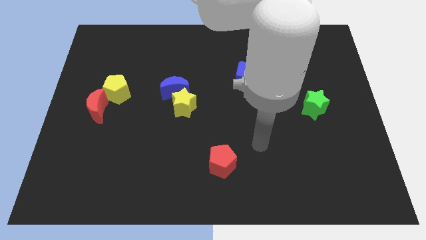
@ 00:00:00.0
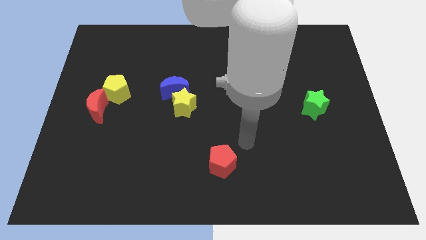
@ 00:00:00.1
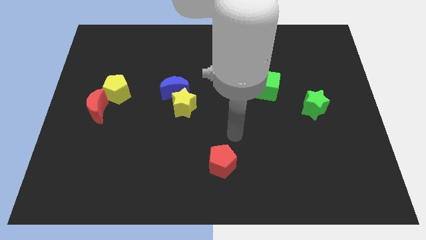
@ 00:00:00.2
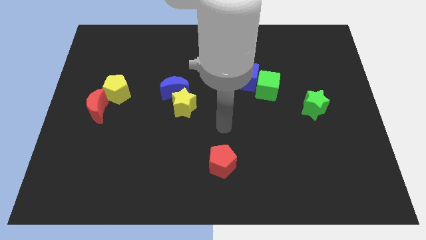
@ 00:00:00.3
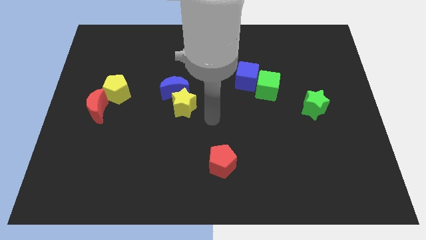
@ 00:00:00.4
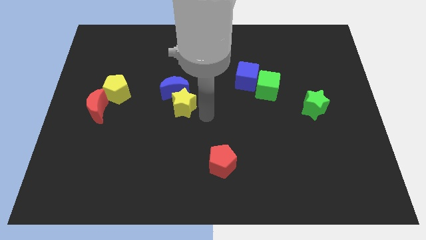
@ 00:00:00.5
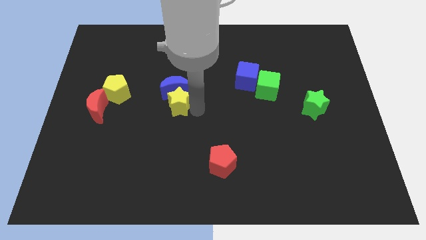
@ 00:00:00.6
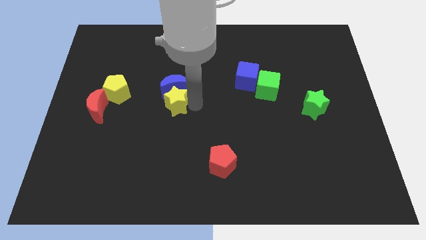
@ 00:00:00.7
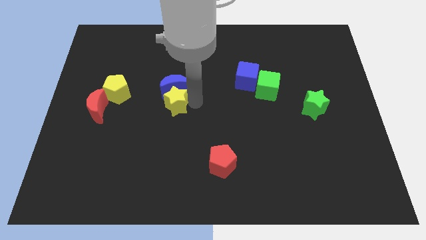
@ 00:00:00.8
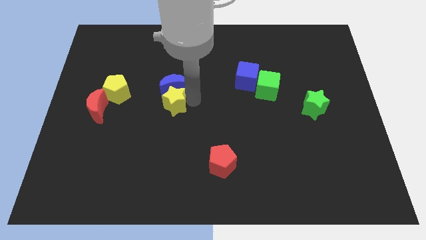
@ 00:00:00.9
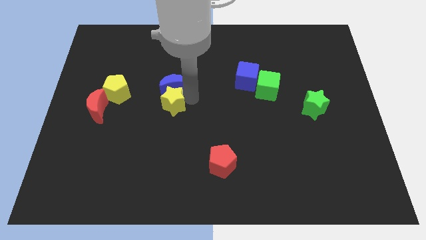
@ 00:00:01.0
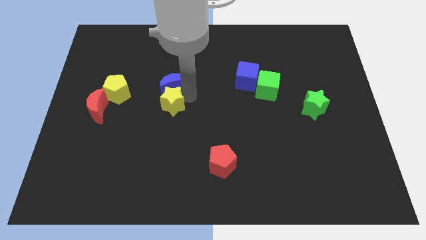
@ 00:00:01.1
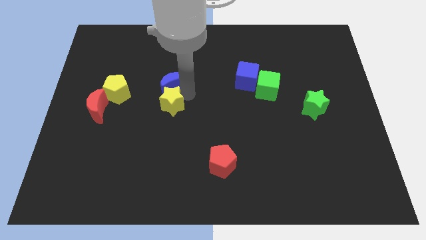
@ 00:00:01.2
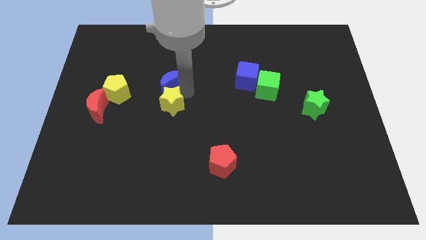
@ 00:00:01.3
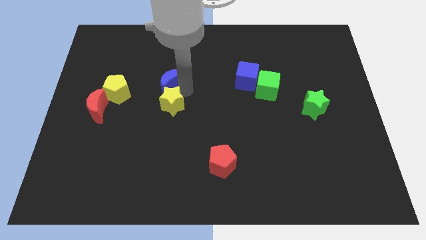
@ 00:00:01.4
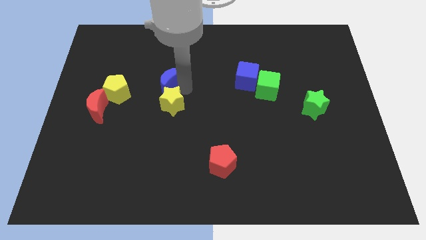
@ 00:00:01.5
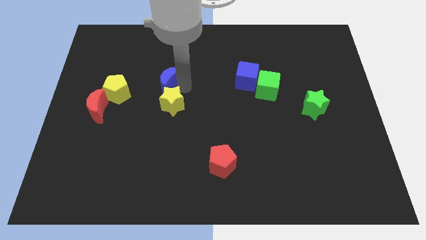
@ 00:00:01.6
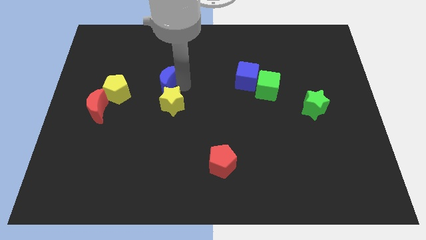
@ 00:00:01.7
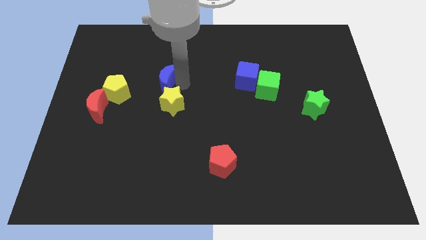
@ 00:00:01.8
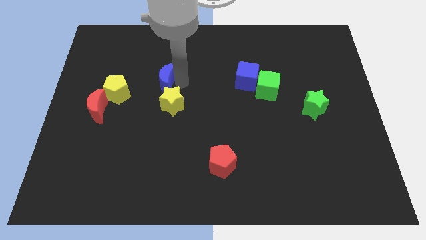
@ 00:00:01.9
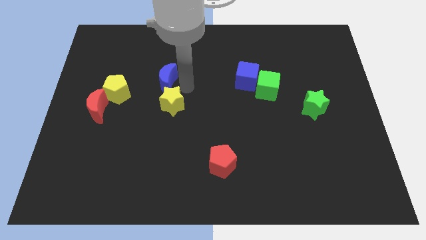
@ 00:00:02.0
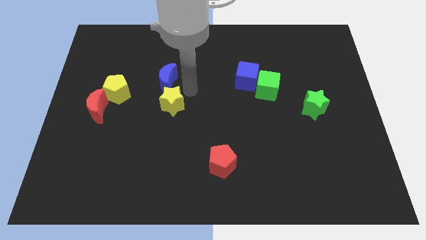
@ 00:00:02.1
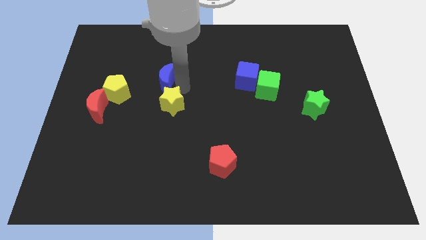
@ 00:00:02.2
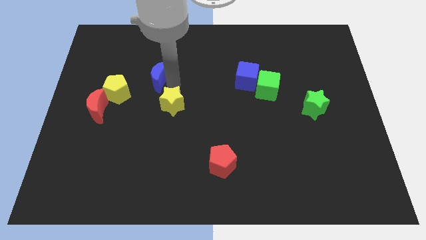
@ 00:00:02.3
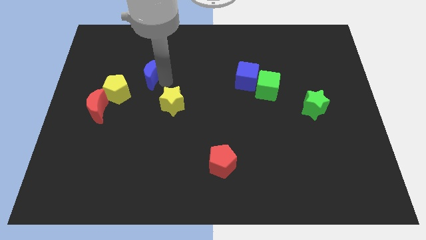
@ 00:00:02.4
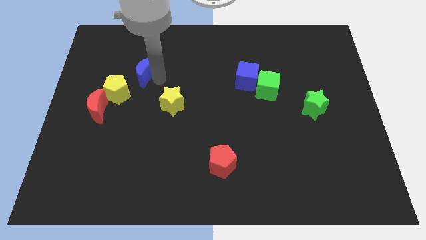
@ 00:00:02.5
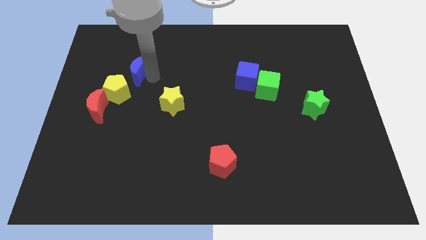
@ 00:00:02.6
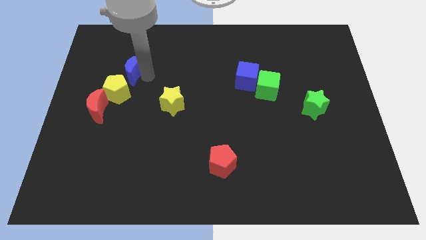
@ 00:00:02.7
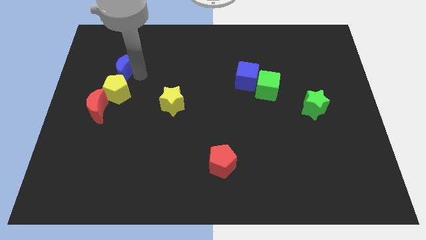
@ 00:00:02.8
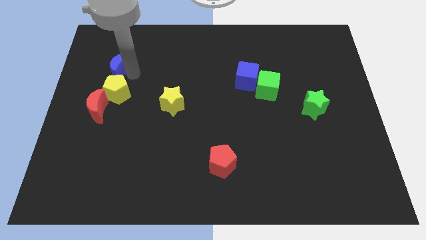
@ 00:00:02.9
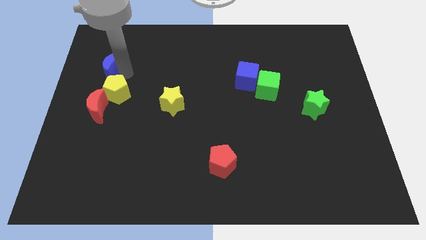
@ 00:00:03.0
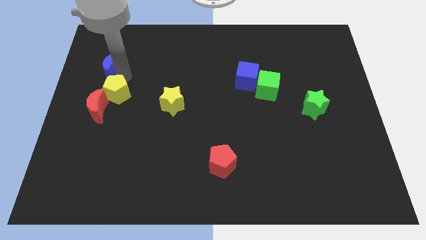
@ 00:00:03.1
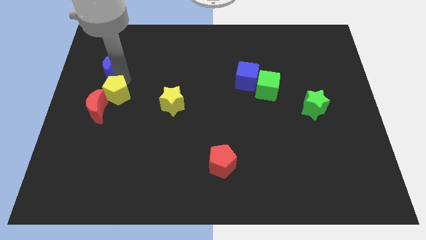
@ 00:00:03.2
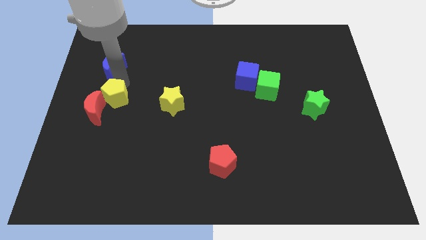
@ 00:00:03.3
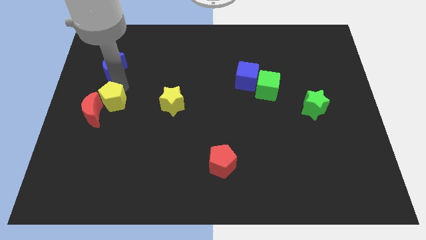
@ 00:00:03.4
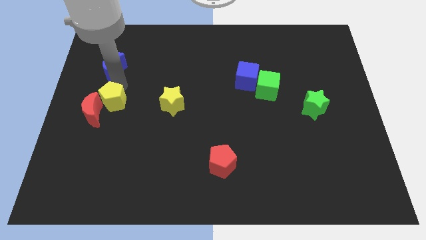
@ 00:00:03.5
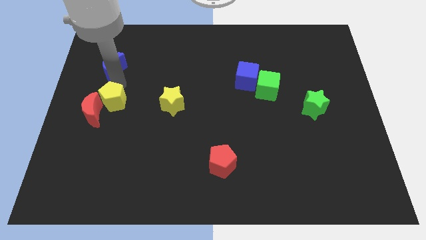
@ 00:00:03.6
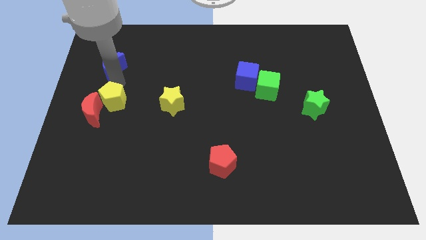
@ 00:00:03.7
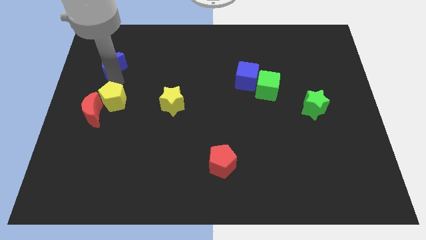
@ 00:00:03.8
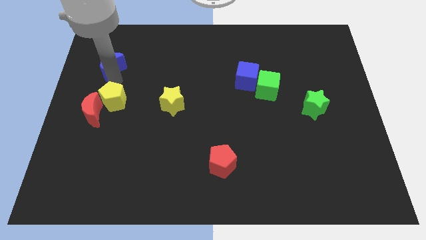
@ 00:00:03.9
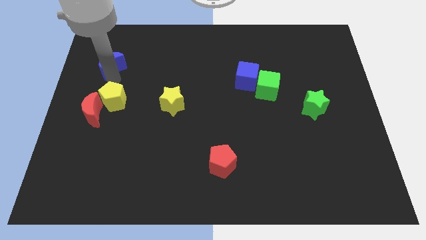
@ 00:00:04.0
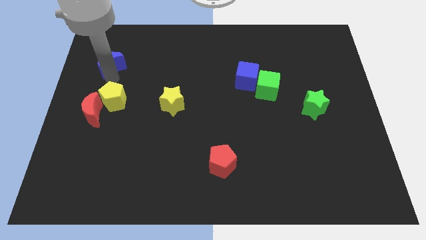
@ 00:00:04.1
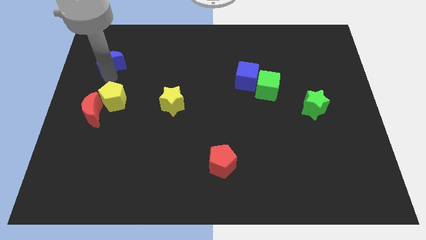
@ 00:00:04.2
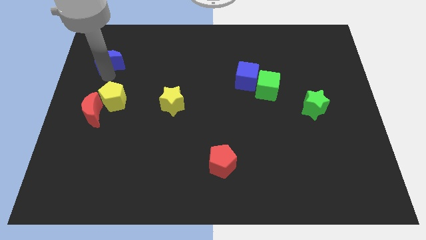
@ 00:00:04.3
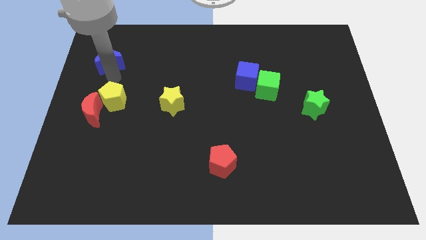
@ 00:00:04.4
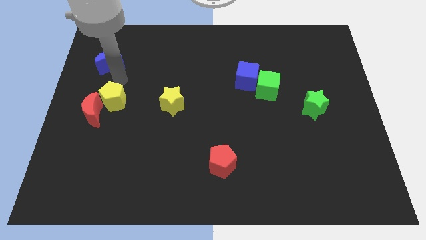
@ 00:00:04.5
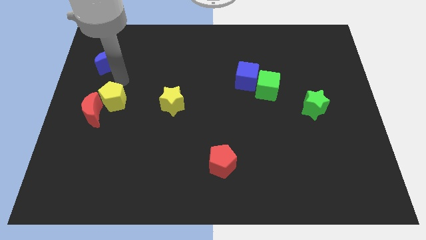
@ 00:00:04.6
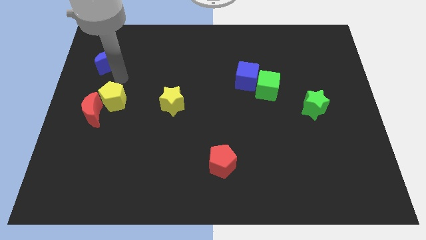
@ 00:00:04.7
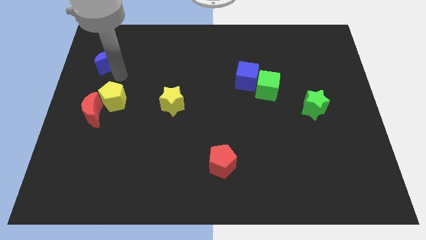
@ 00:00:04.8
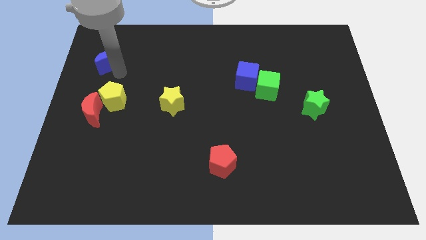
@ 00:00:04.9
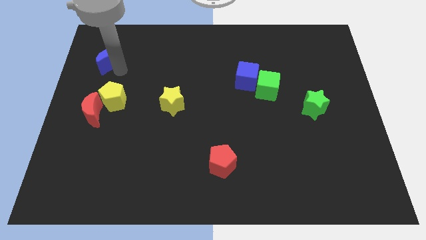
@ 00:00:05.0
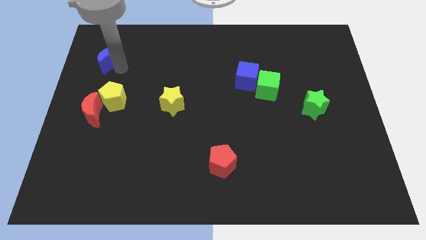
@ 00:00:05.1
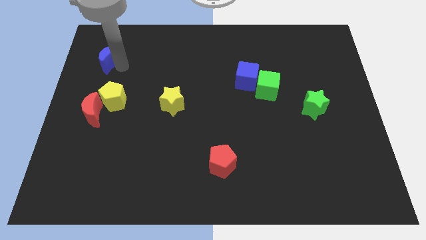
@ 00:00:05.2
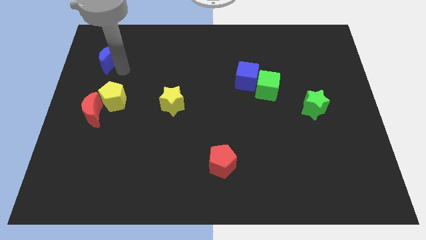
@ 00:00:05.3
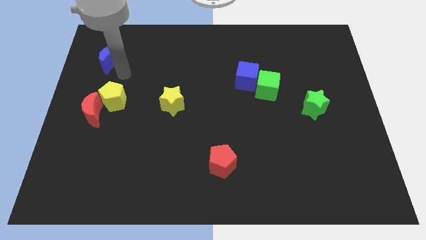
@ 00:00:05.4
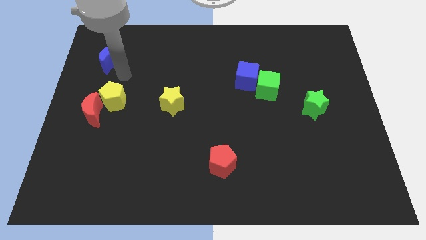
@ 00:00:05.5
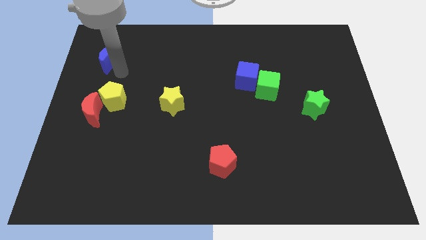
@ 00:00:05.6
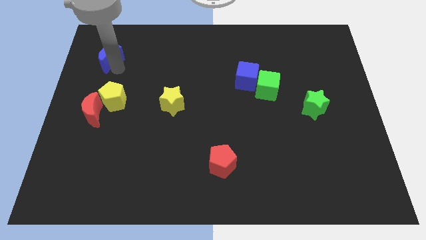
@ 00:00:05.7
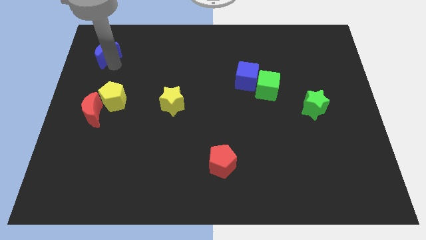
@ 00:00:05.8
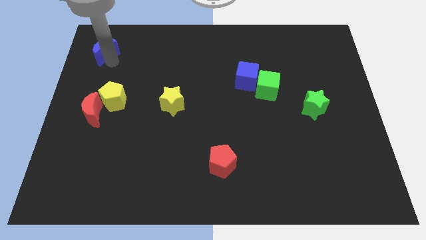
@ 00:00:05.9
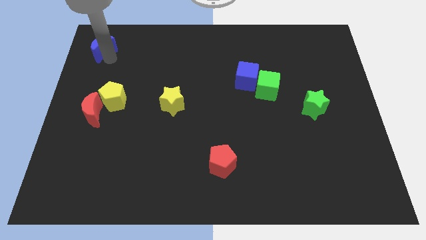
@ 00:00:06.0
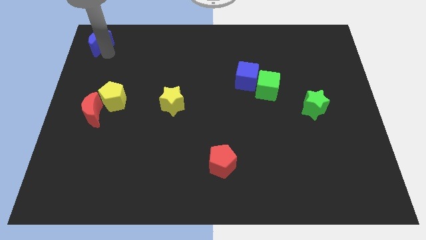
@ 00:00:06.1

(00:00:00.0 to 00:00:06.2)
move the blue moon to the top left

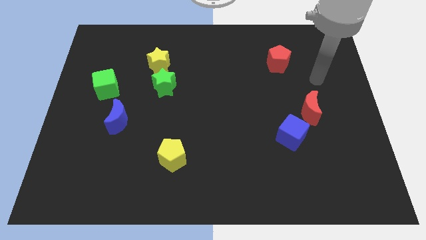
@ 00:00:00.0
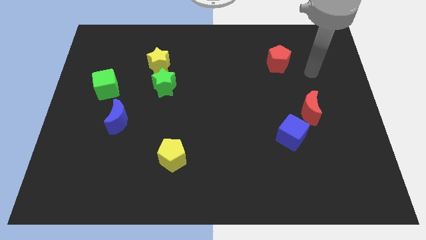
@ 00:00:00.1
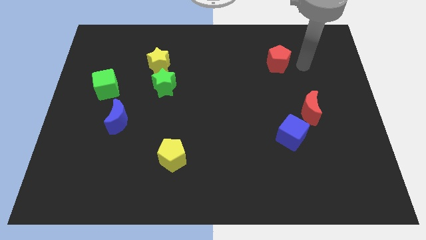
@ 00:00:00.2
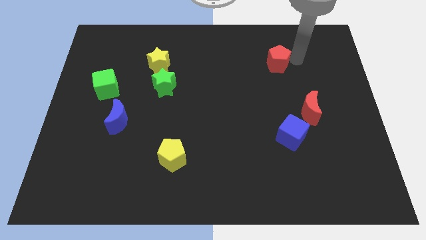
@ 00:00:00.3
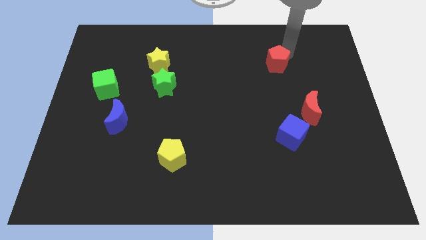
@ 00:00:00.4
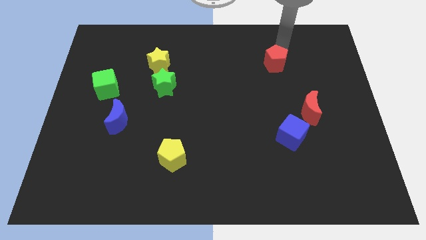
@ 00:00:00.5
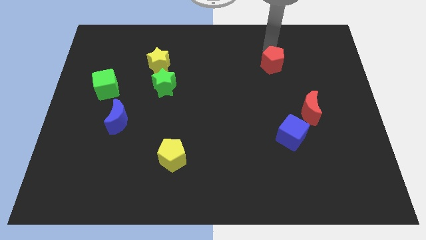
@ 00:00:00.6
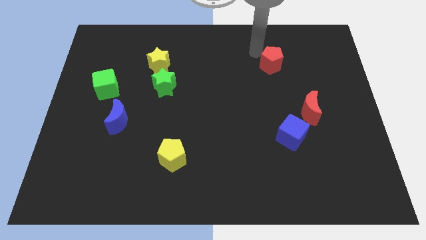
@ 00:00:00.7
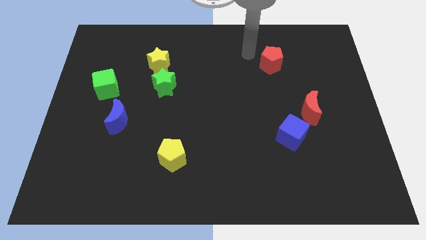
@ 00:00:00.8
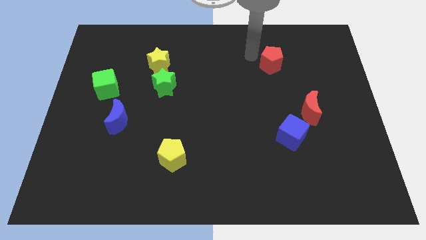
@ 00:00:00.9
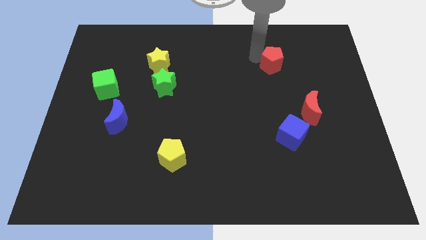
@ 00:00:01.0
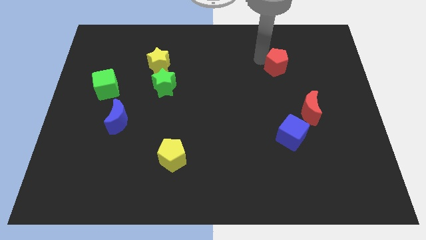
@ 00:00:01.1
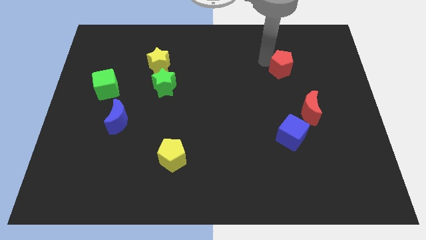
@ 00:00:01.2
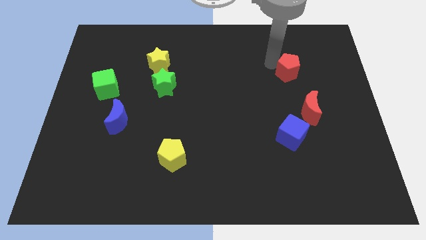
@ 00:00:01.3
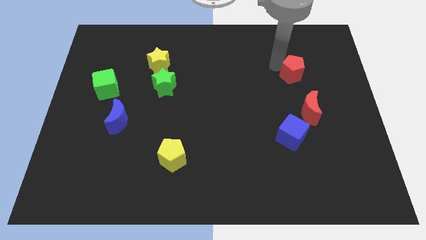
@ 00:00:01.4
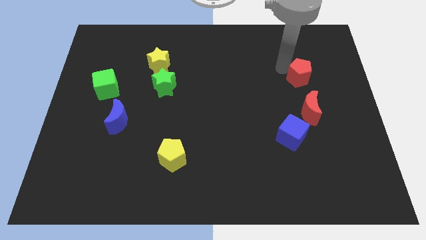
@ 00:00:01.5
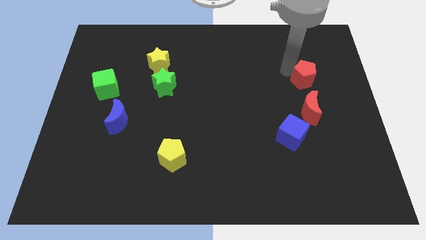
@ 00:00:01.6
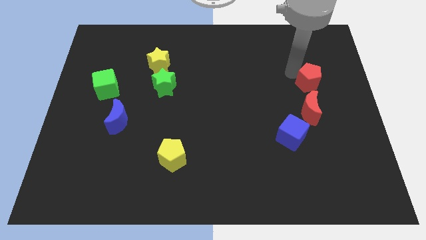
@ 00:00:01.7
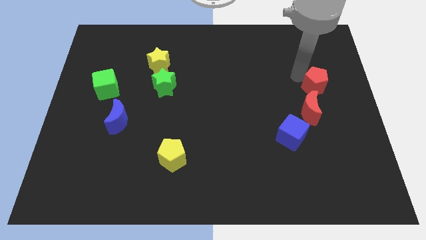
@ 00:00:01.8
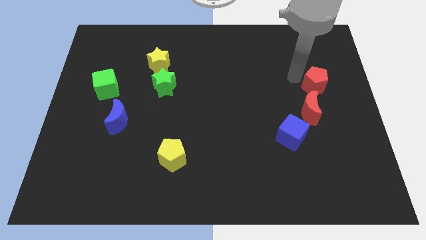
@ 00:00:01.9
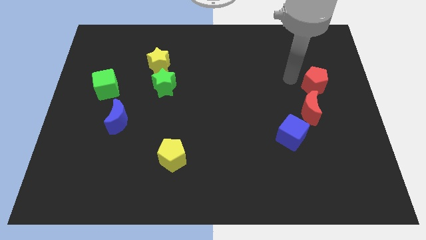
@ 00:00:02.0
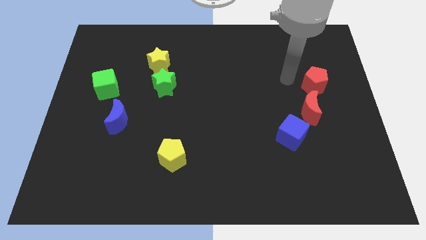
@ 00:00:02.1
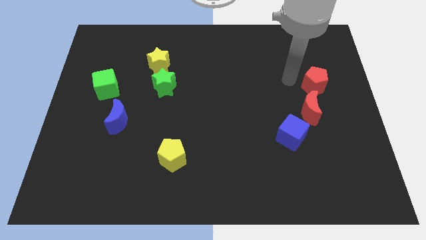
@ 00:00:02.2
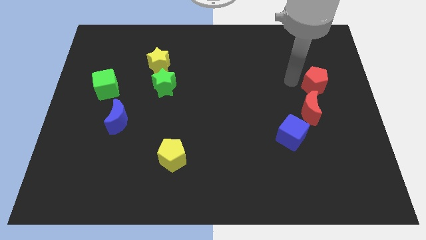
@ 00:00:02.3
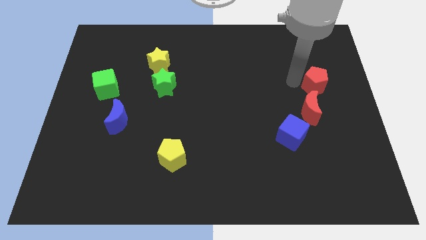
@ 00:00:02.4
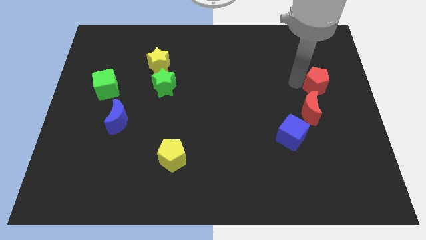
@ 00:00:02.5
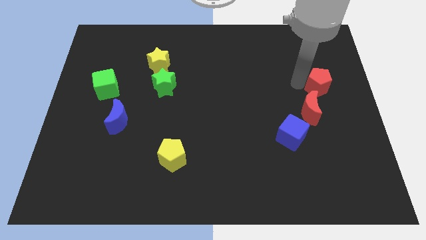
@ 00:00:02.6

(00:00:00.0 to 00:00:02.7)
slide the red pentagon to the right side
